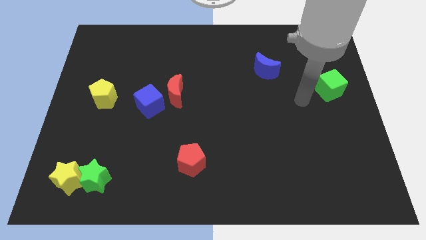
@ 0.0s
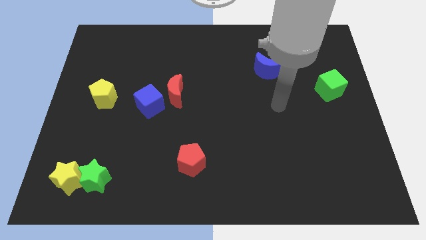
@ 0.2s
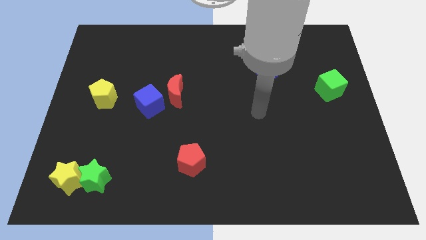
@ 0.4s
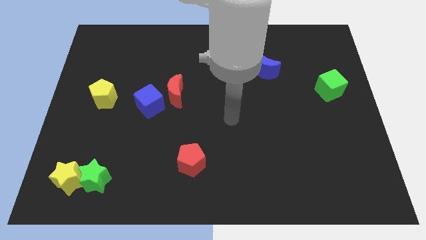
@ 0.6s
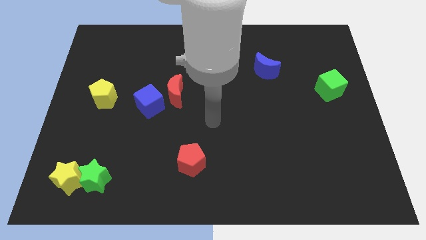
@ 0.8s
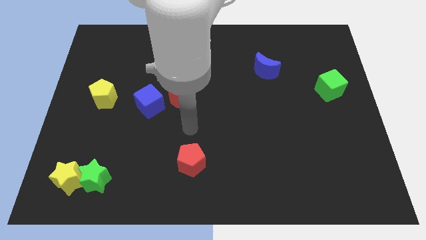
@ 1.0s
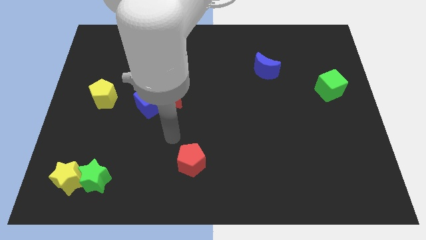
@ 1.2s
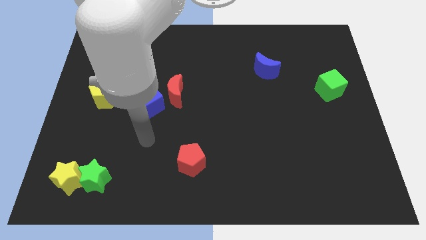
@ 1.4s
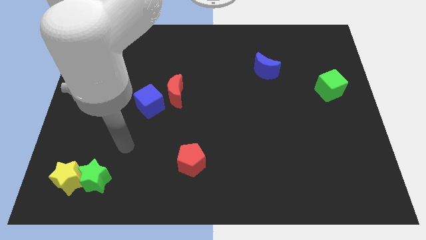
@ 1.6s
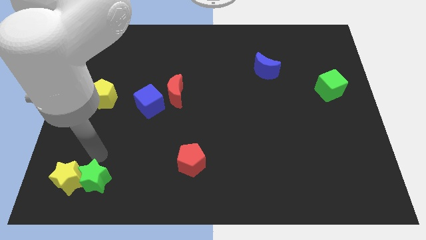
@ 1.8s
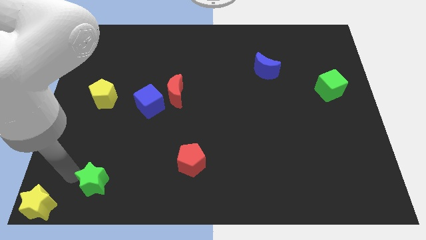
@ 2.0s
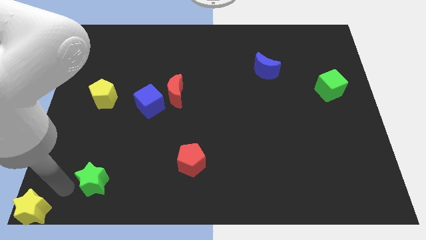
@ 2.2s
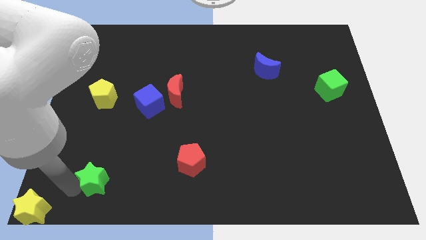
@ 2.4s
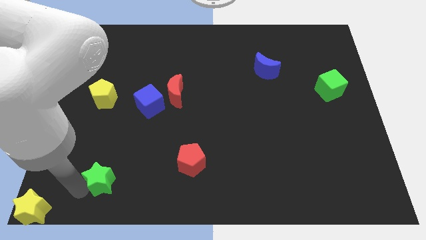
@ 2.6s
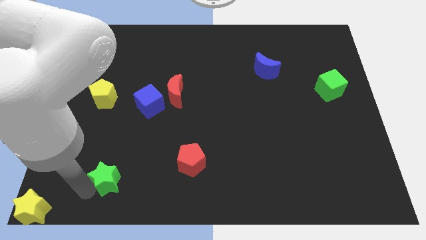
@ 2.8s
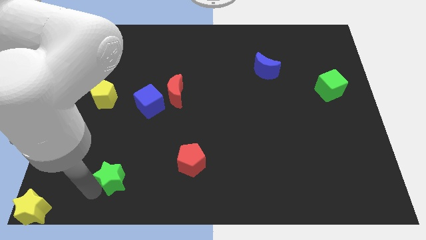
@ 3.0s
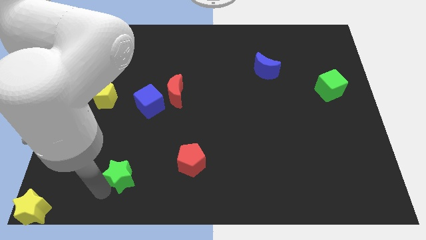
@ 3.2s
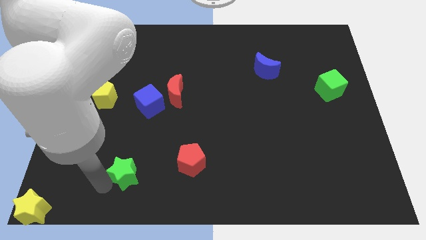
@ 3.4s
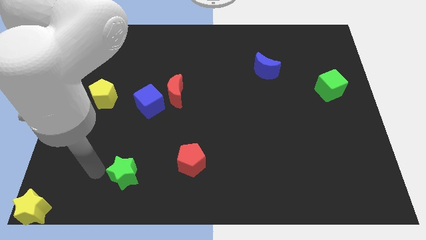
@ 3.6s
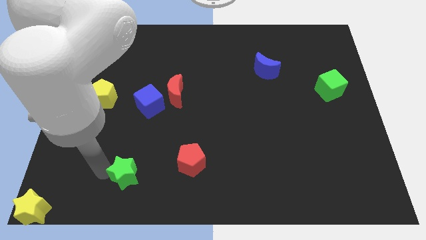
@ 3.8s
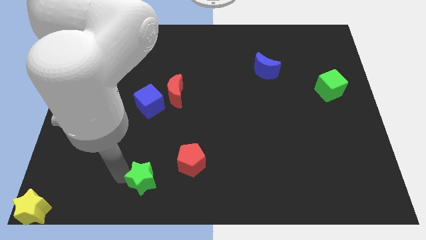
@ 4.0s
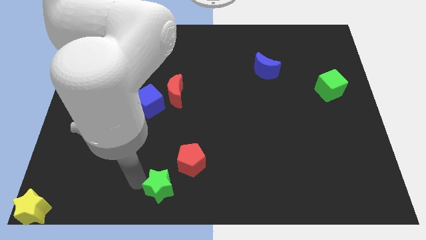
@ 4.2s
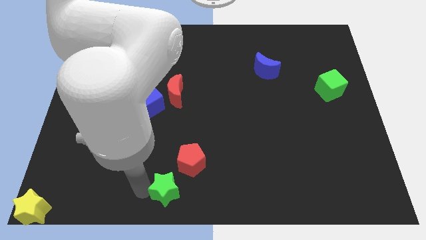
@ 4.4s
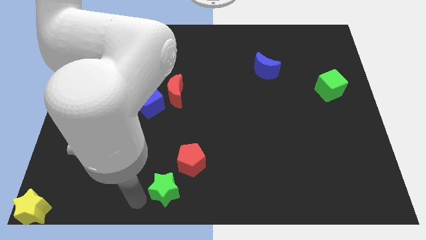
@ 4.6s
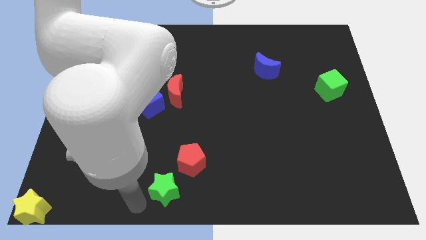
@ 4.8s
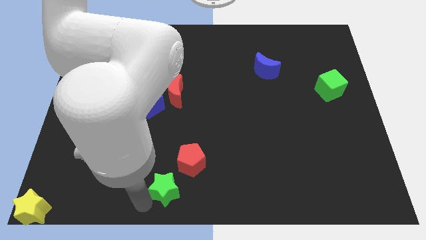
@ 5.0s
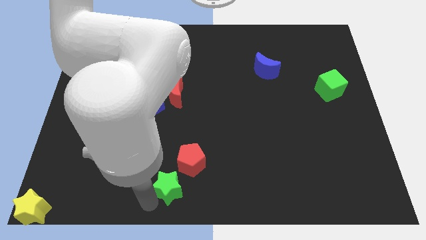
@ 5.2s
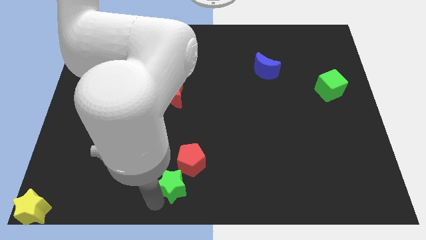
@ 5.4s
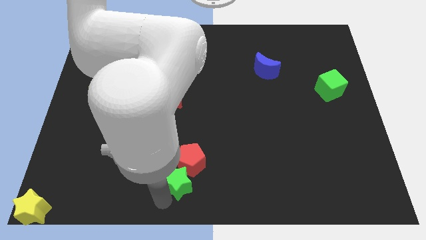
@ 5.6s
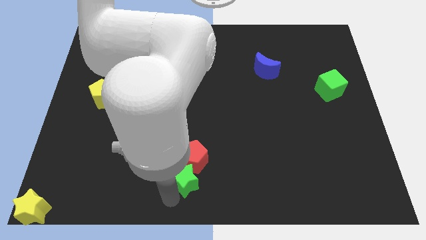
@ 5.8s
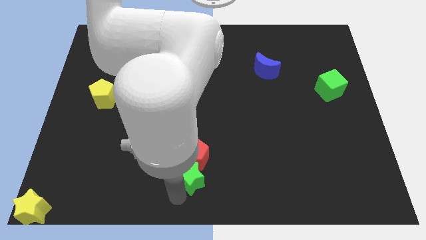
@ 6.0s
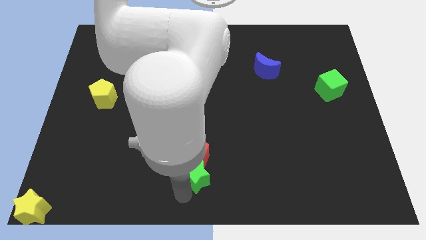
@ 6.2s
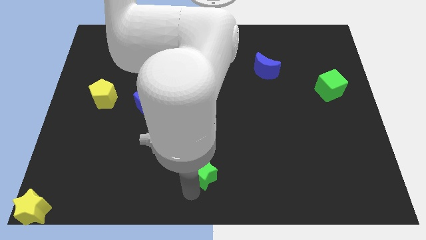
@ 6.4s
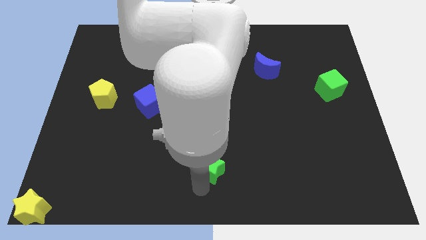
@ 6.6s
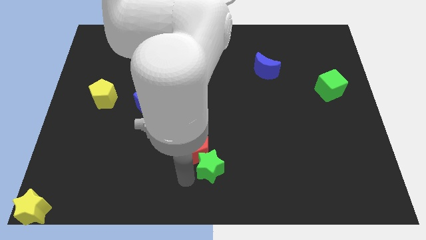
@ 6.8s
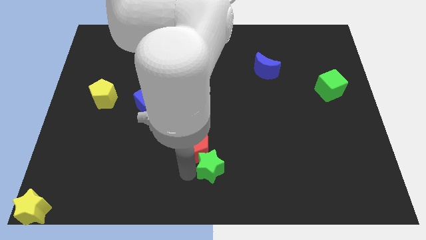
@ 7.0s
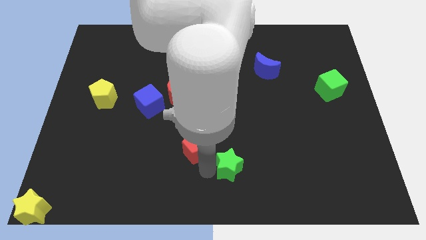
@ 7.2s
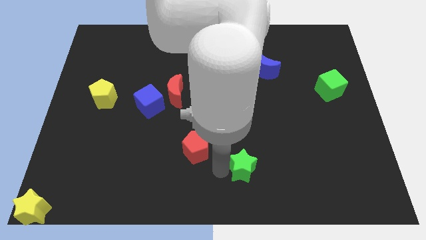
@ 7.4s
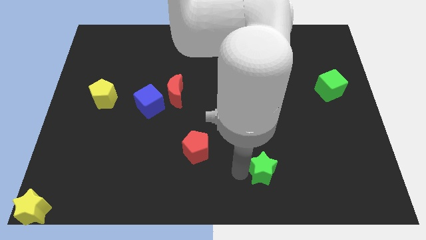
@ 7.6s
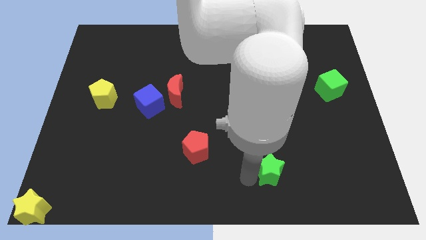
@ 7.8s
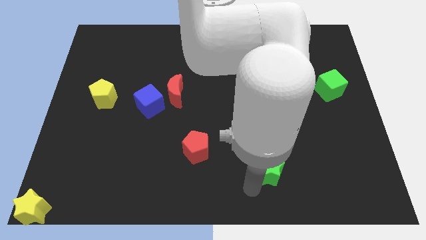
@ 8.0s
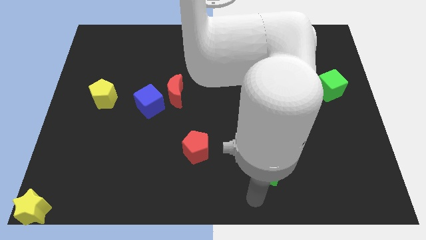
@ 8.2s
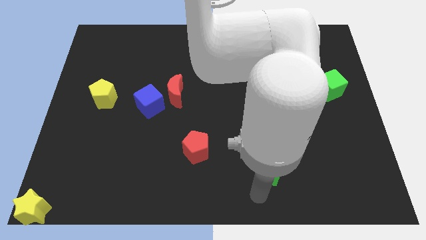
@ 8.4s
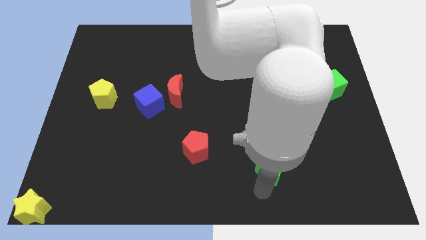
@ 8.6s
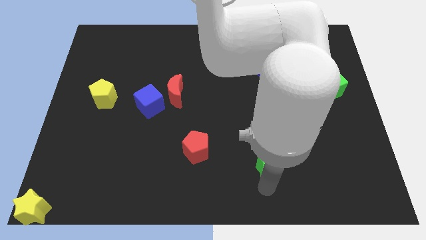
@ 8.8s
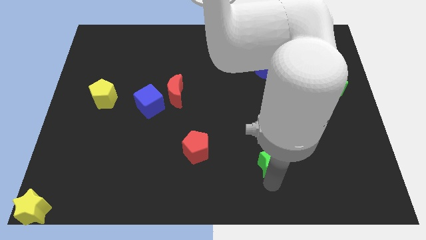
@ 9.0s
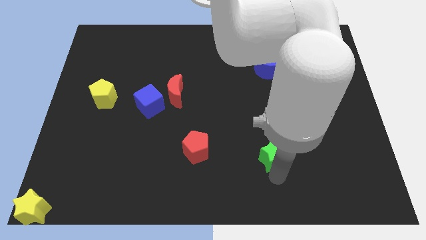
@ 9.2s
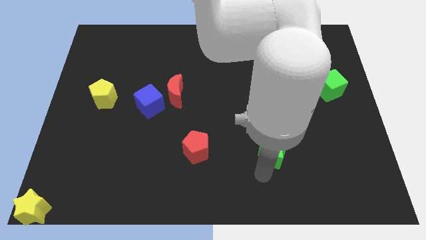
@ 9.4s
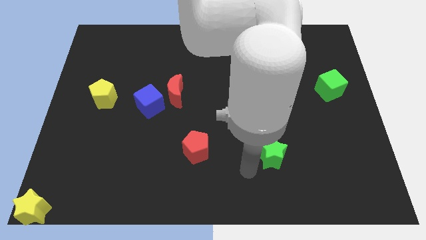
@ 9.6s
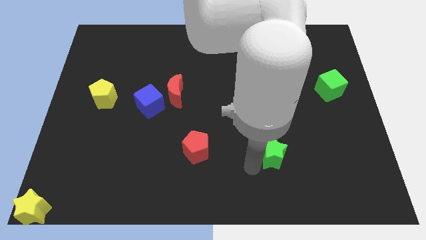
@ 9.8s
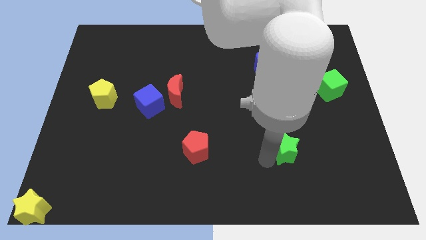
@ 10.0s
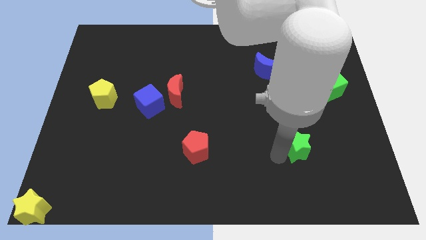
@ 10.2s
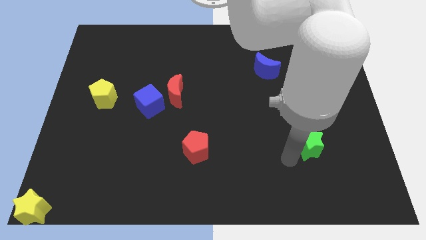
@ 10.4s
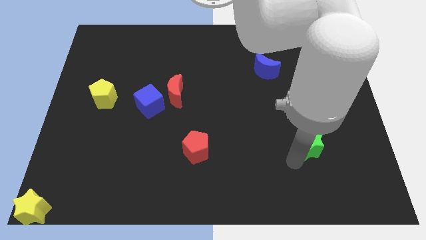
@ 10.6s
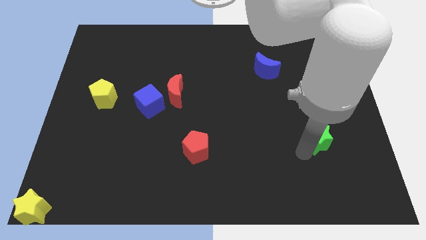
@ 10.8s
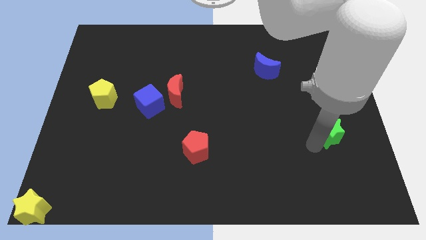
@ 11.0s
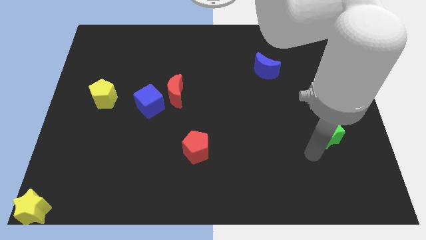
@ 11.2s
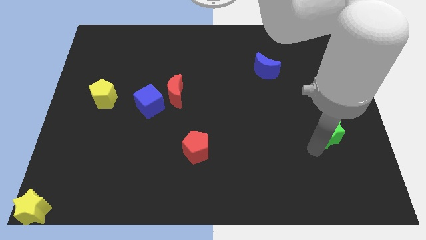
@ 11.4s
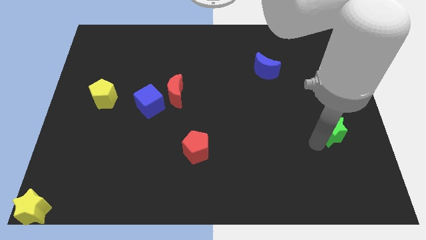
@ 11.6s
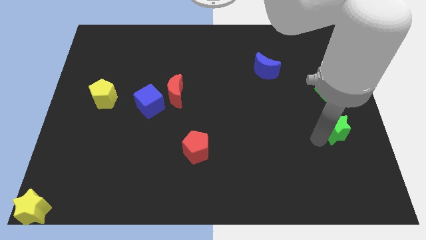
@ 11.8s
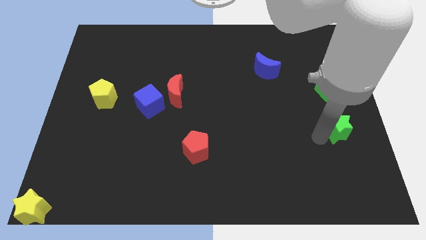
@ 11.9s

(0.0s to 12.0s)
put the green star to the right side
